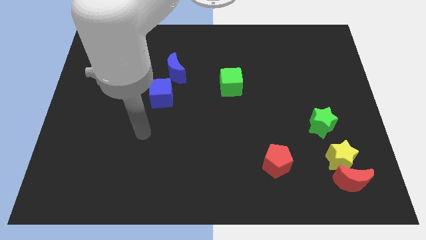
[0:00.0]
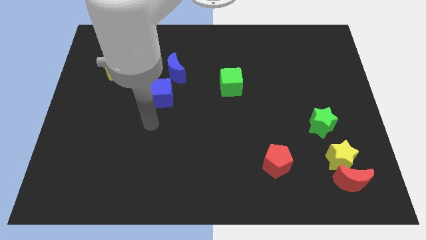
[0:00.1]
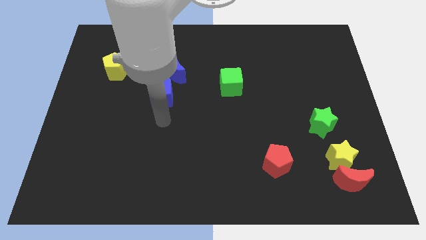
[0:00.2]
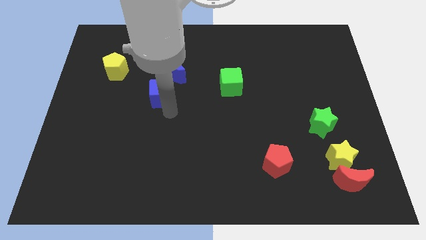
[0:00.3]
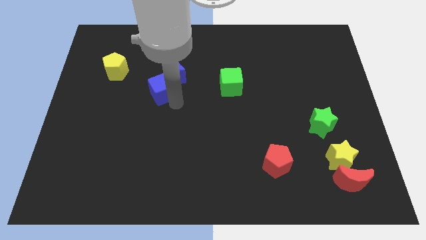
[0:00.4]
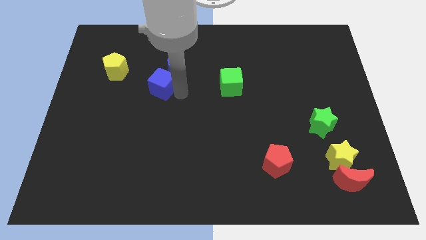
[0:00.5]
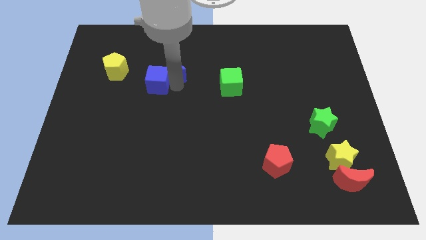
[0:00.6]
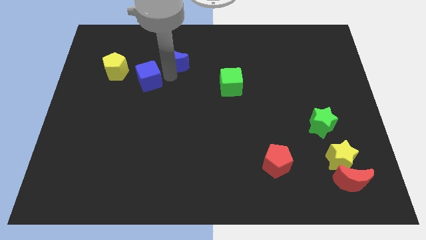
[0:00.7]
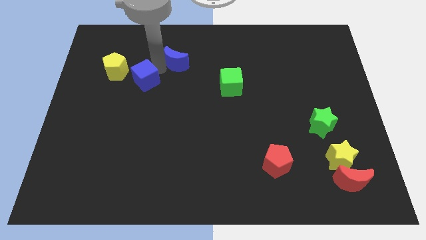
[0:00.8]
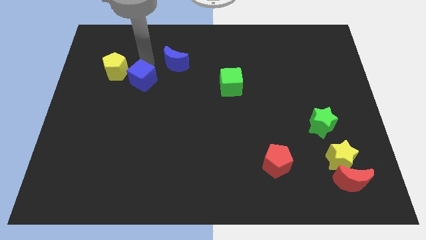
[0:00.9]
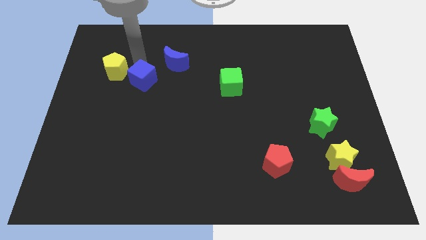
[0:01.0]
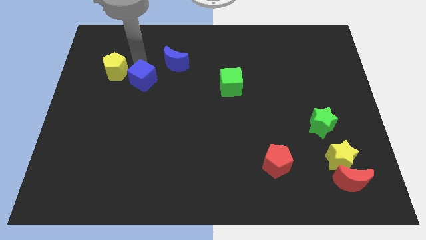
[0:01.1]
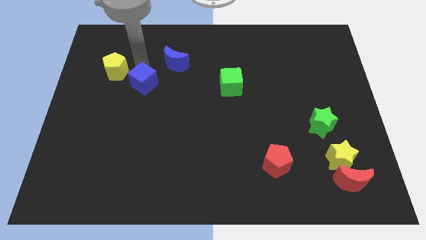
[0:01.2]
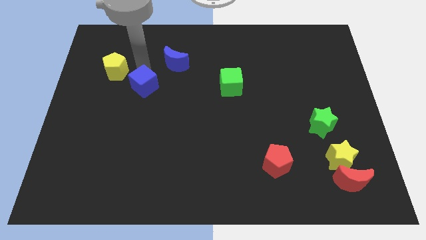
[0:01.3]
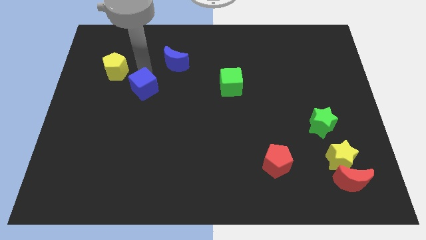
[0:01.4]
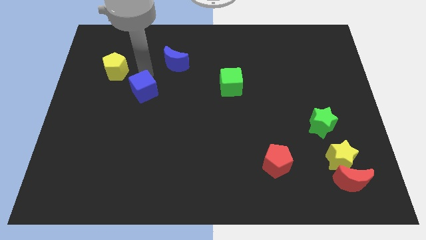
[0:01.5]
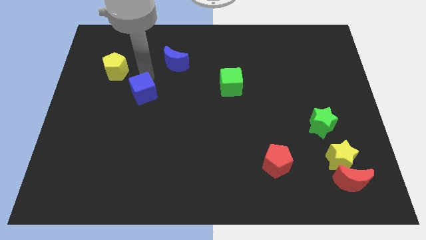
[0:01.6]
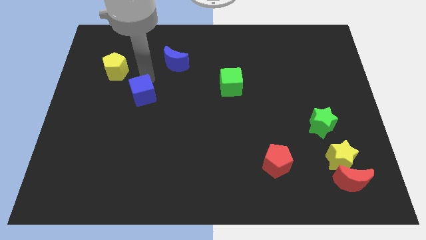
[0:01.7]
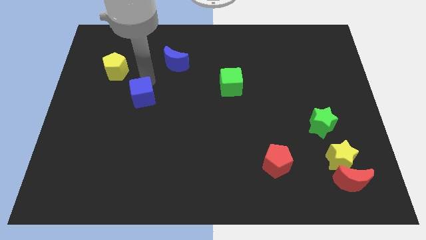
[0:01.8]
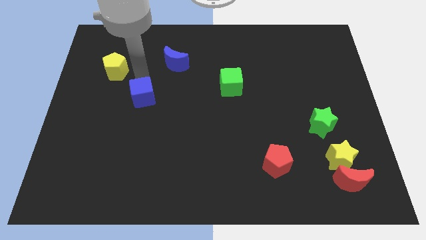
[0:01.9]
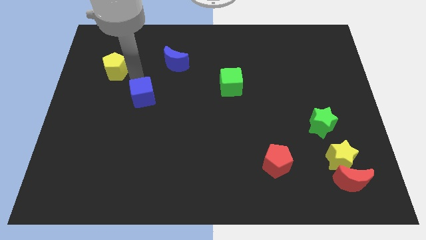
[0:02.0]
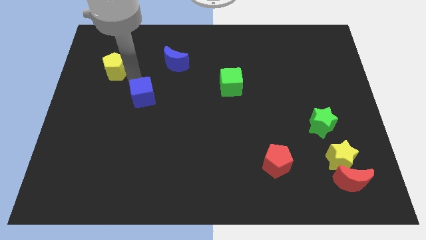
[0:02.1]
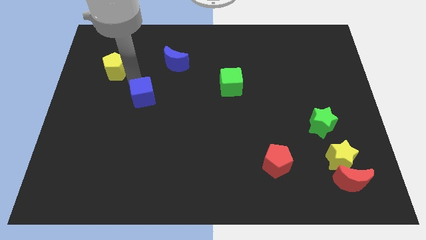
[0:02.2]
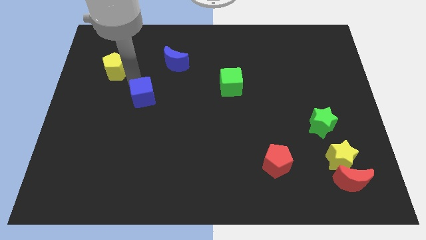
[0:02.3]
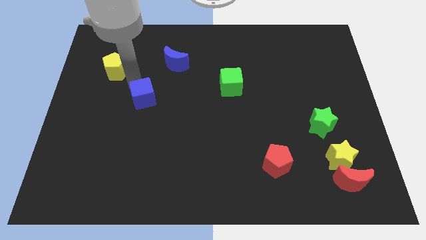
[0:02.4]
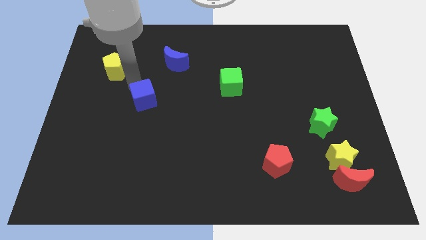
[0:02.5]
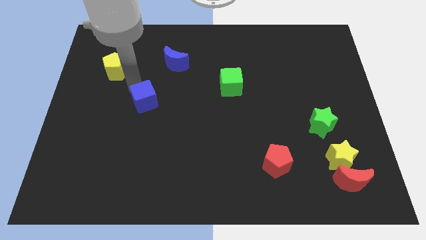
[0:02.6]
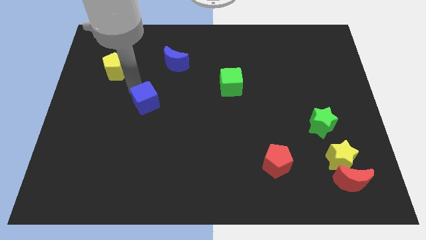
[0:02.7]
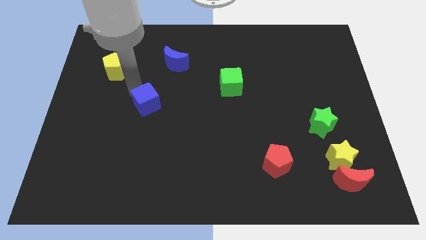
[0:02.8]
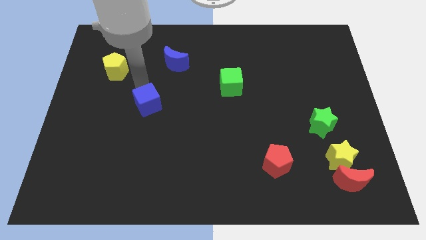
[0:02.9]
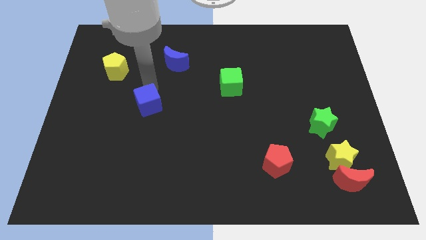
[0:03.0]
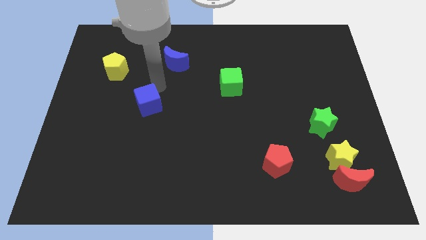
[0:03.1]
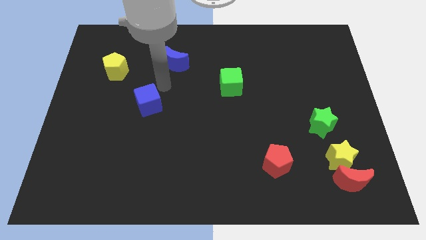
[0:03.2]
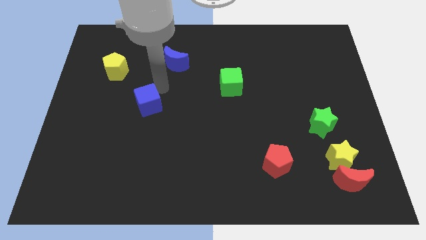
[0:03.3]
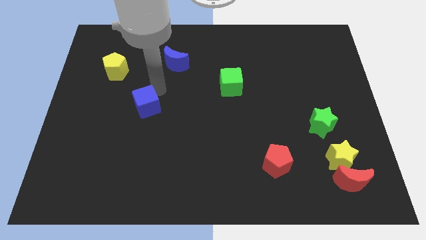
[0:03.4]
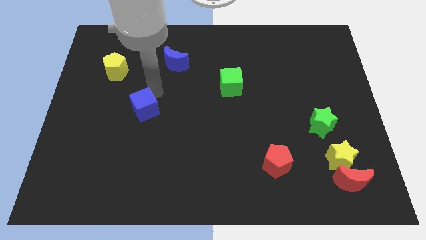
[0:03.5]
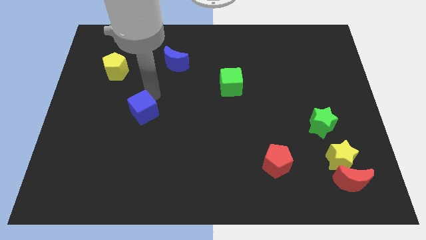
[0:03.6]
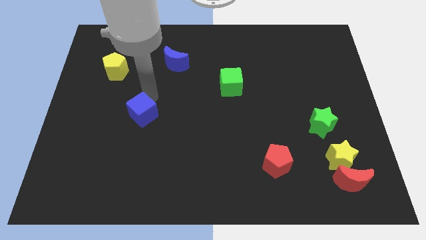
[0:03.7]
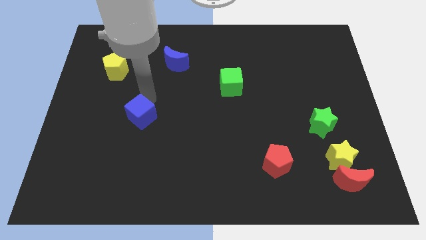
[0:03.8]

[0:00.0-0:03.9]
push the blue cube a little downwards and to the left

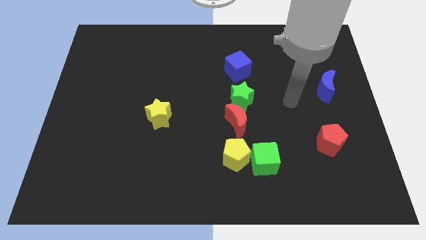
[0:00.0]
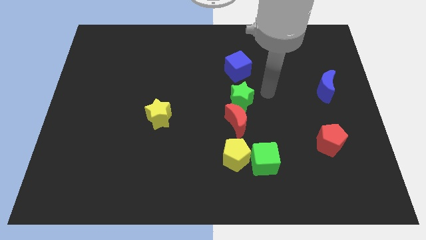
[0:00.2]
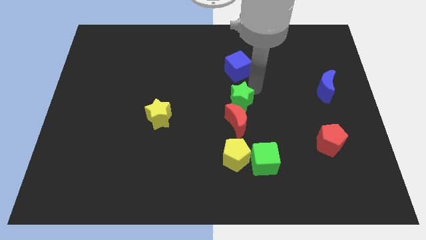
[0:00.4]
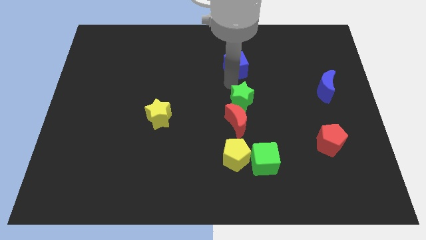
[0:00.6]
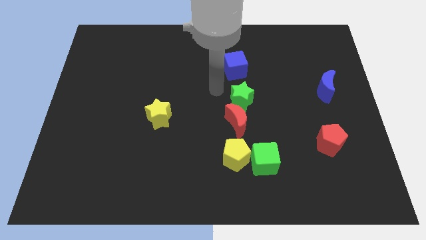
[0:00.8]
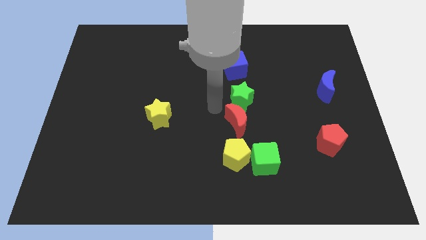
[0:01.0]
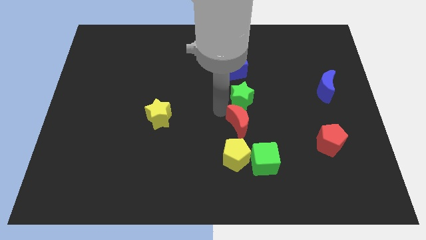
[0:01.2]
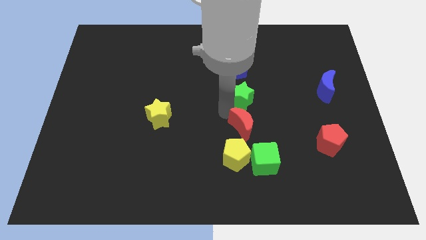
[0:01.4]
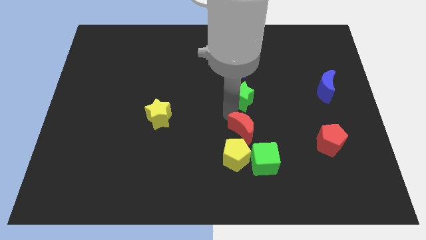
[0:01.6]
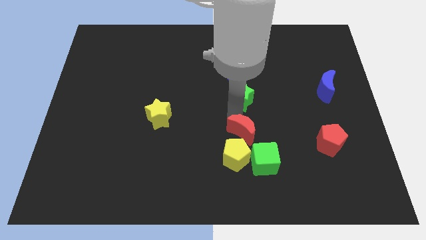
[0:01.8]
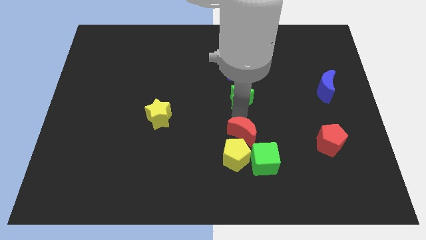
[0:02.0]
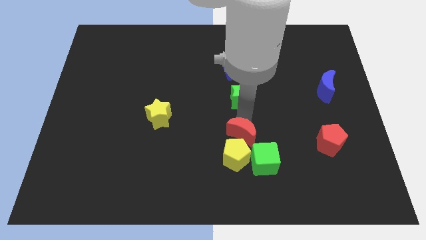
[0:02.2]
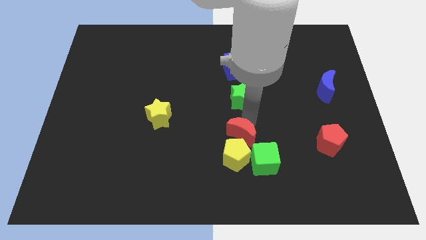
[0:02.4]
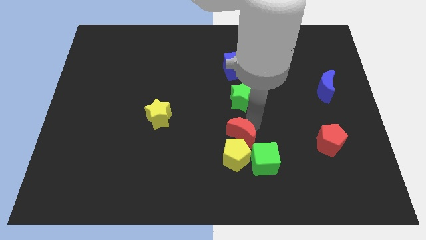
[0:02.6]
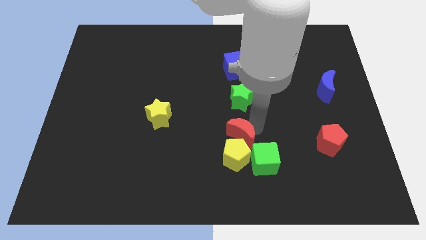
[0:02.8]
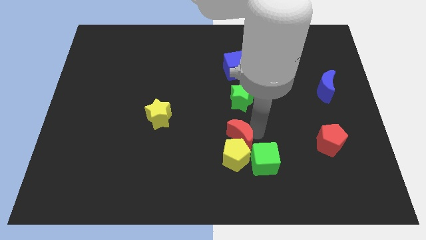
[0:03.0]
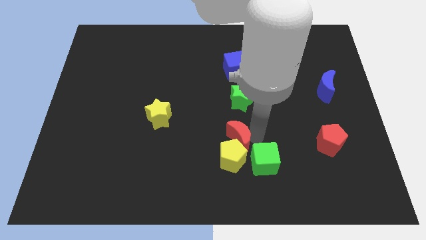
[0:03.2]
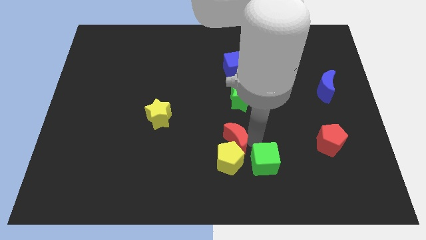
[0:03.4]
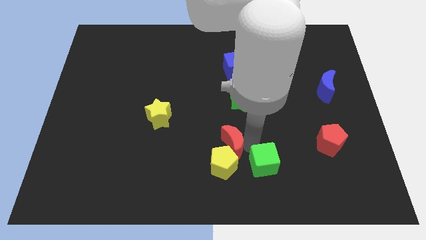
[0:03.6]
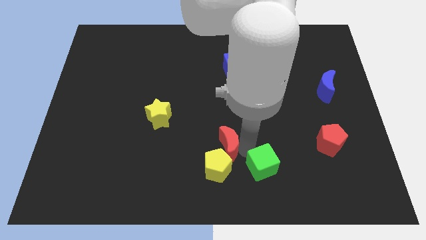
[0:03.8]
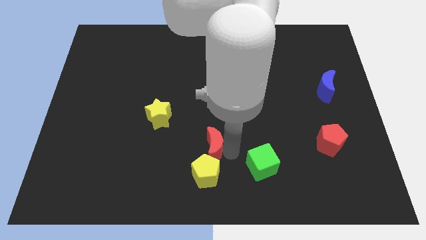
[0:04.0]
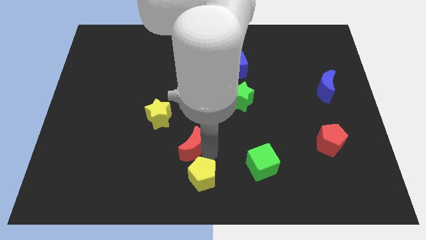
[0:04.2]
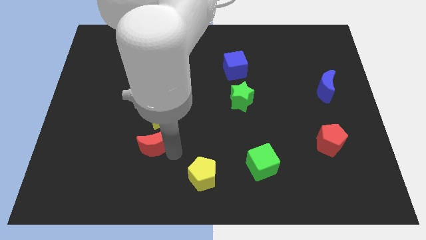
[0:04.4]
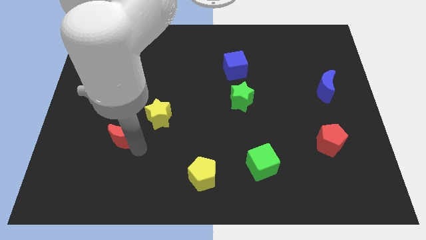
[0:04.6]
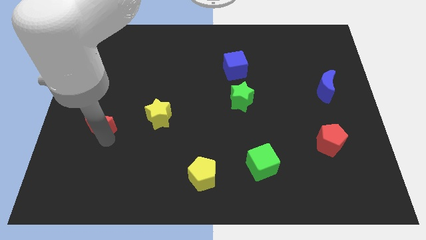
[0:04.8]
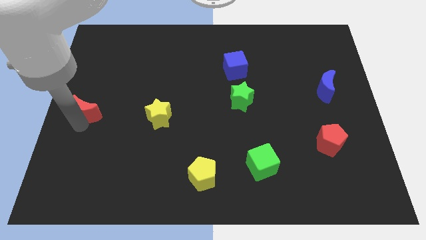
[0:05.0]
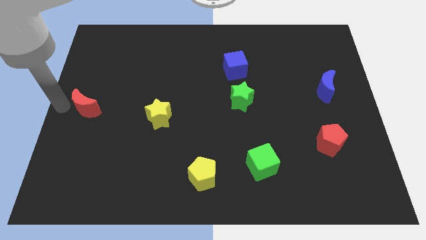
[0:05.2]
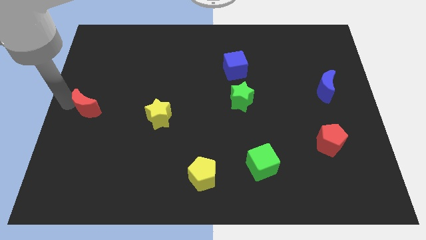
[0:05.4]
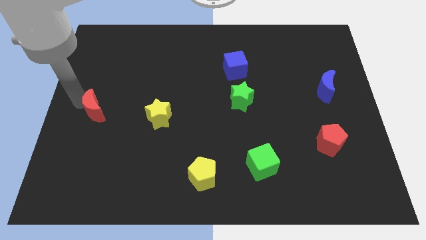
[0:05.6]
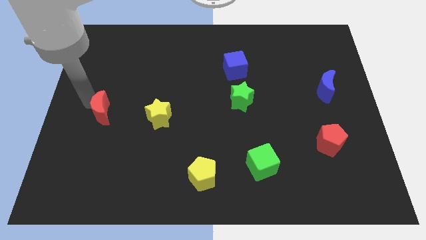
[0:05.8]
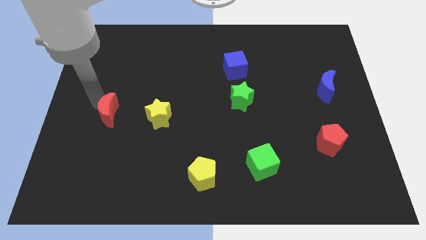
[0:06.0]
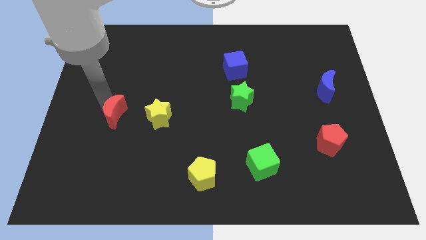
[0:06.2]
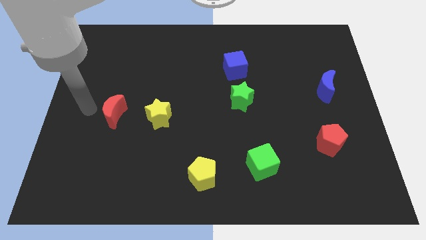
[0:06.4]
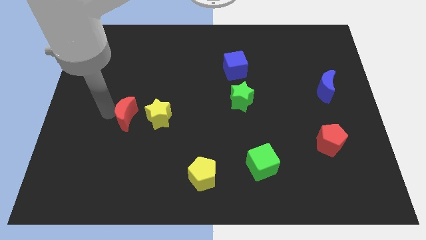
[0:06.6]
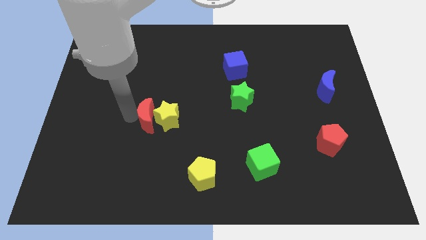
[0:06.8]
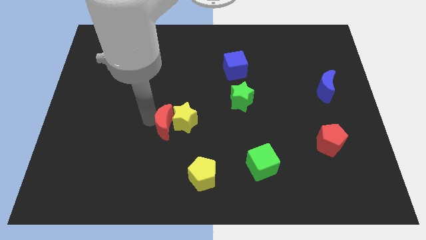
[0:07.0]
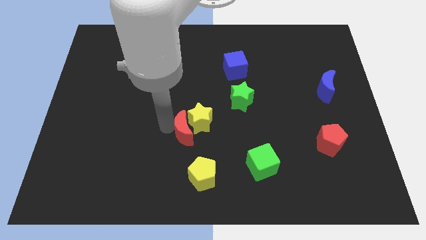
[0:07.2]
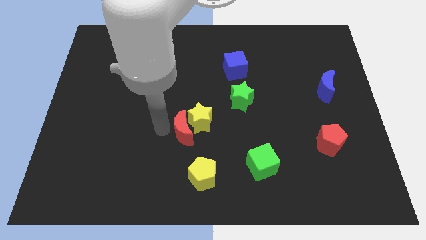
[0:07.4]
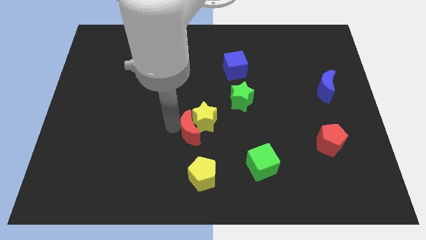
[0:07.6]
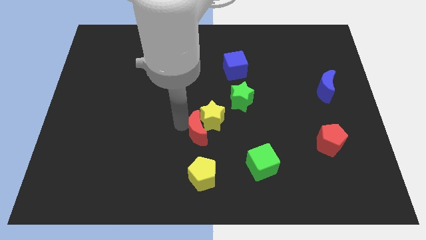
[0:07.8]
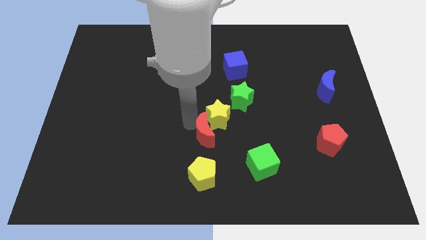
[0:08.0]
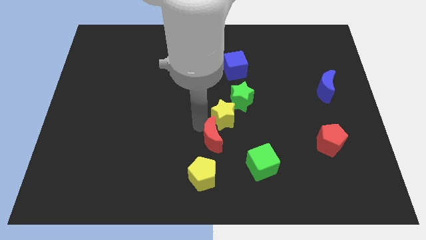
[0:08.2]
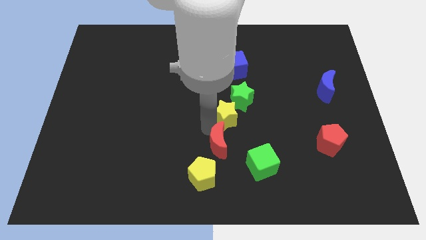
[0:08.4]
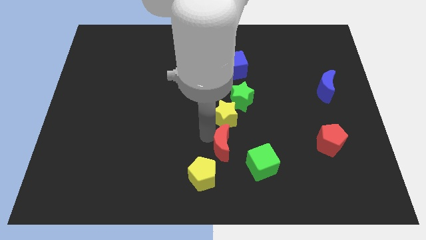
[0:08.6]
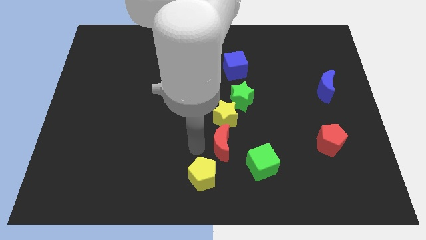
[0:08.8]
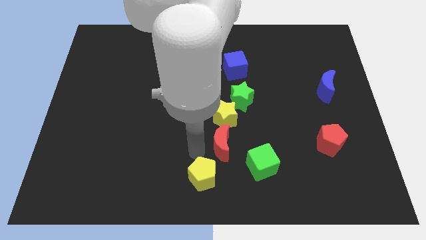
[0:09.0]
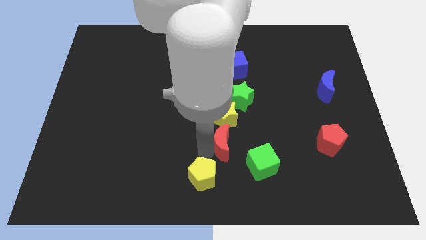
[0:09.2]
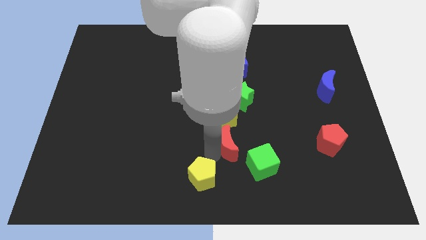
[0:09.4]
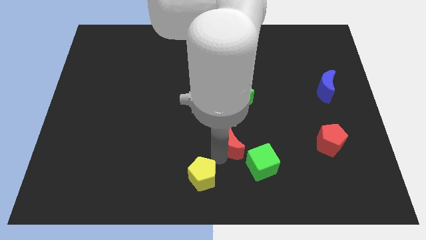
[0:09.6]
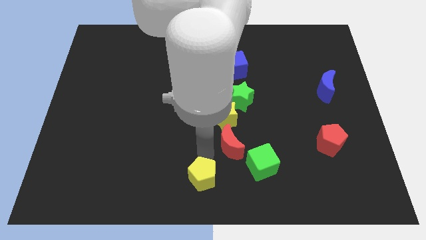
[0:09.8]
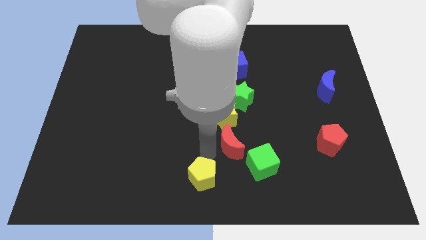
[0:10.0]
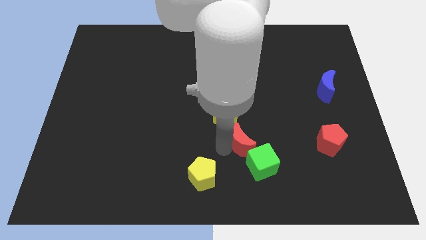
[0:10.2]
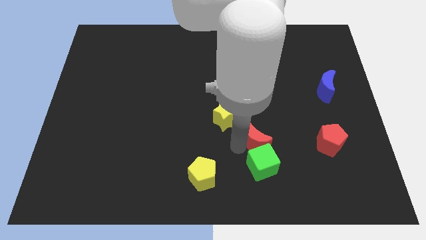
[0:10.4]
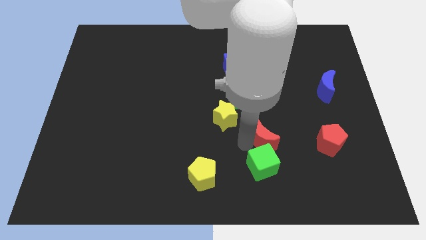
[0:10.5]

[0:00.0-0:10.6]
move the red moon down and to the right a little
